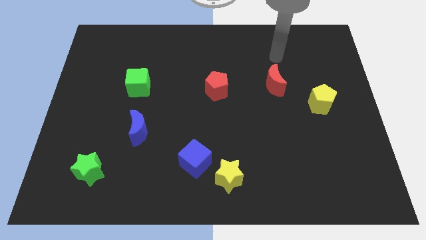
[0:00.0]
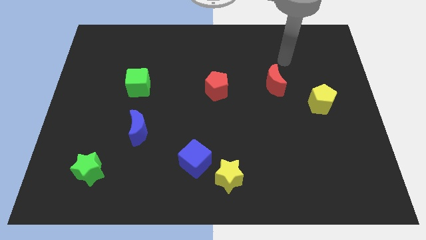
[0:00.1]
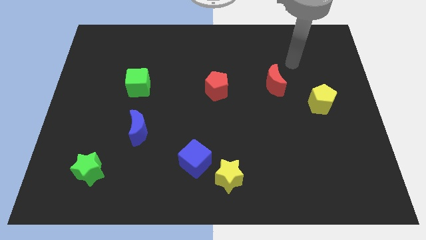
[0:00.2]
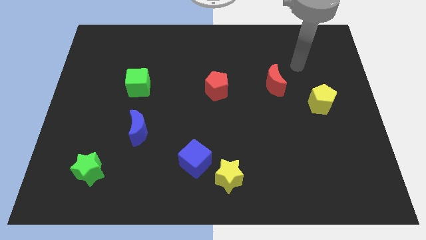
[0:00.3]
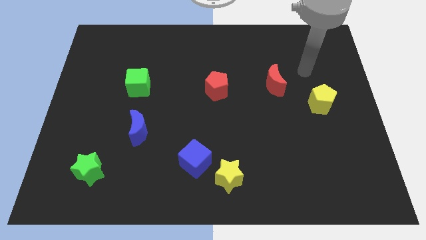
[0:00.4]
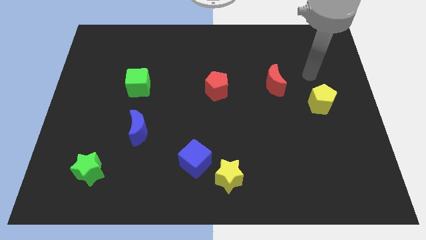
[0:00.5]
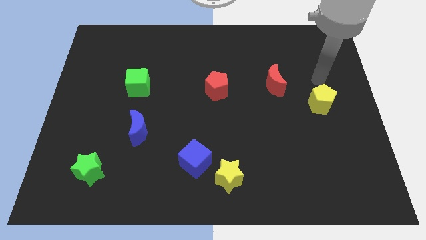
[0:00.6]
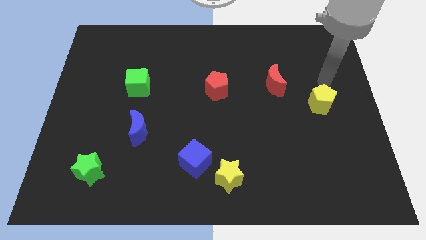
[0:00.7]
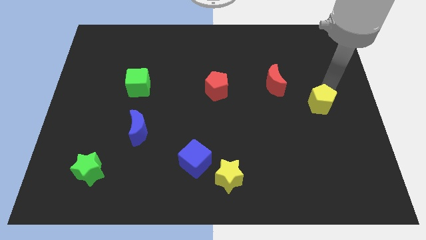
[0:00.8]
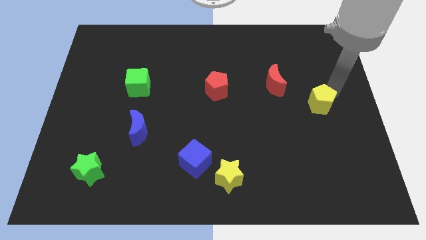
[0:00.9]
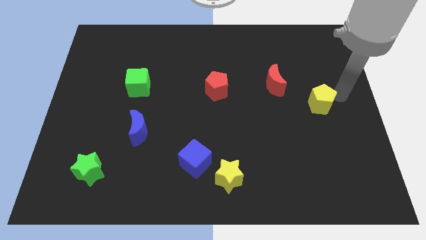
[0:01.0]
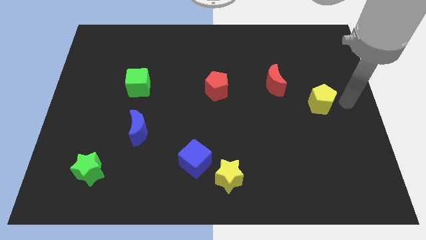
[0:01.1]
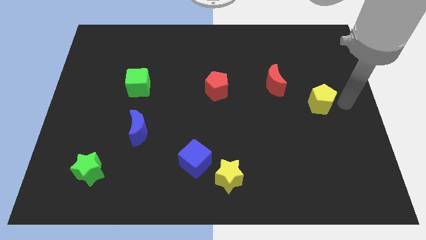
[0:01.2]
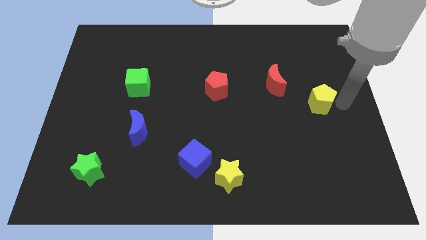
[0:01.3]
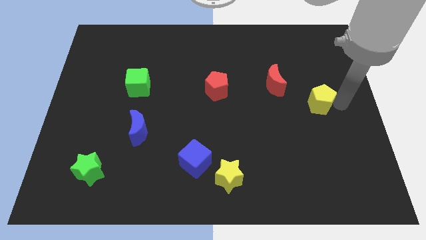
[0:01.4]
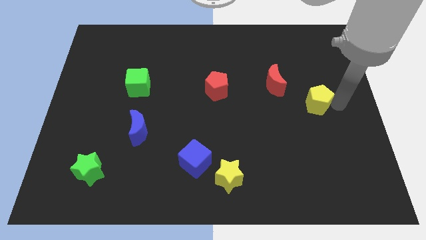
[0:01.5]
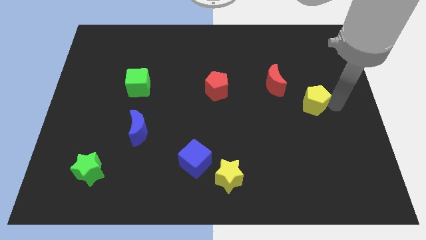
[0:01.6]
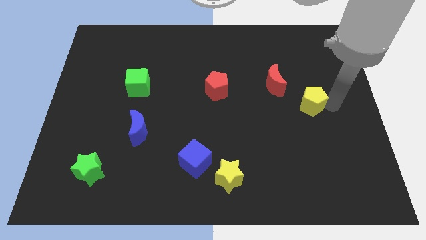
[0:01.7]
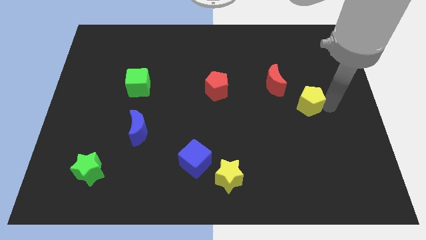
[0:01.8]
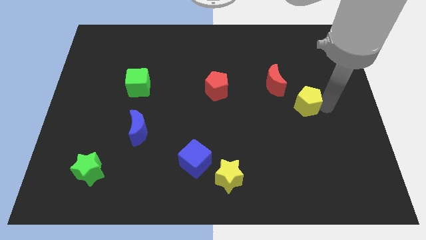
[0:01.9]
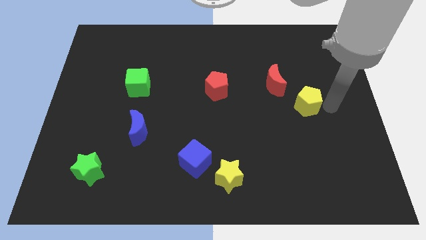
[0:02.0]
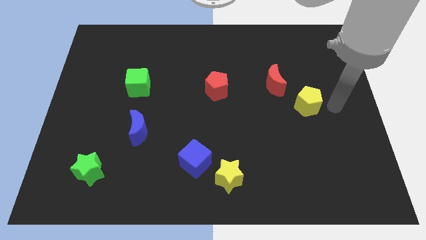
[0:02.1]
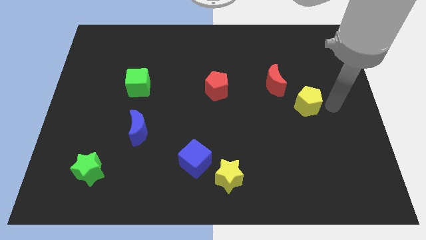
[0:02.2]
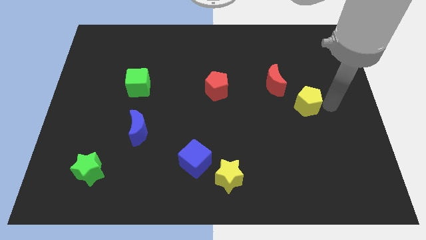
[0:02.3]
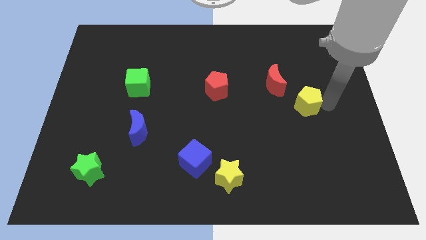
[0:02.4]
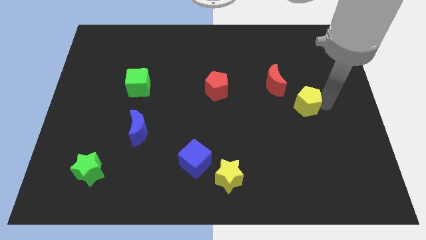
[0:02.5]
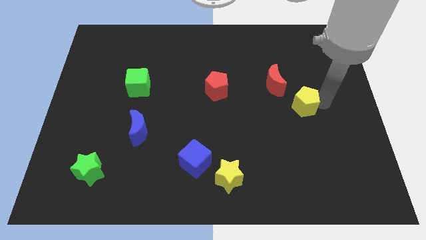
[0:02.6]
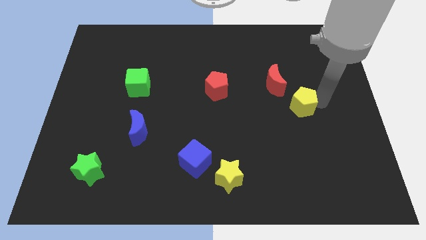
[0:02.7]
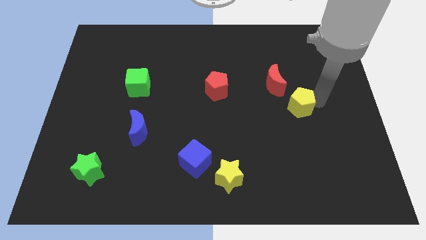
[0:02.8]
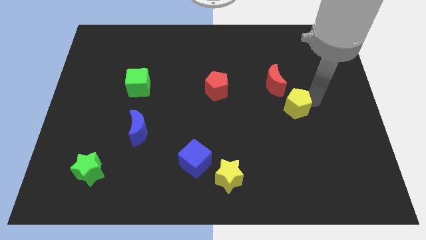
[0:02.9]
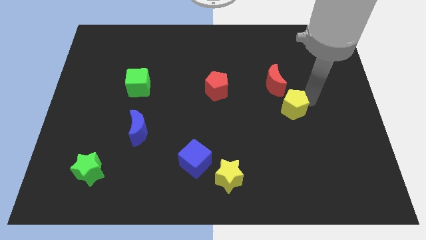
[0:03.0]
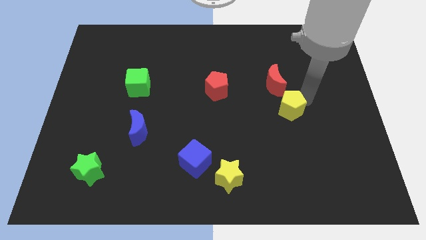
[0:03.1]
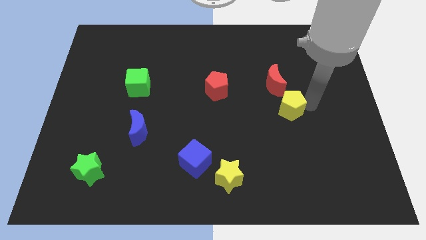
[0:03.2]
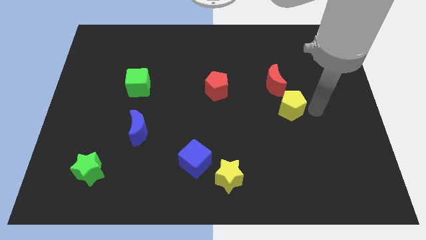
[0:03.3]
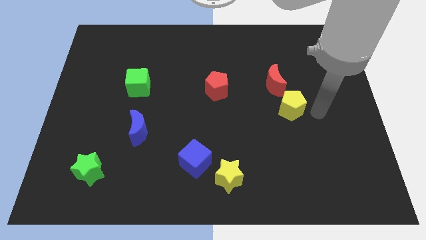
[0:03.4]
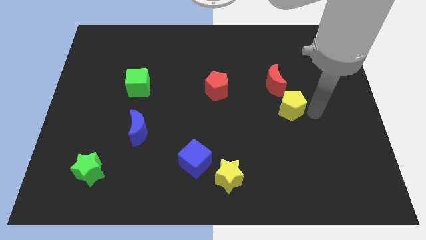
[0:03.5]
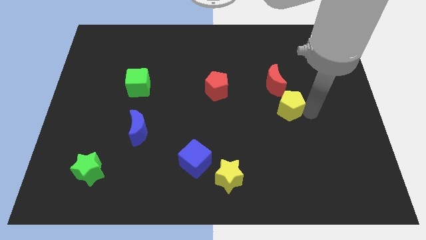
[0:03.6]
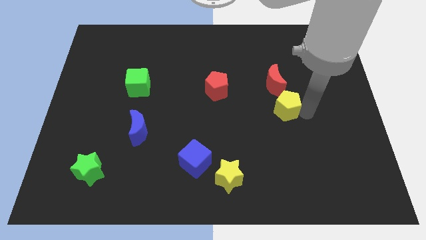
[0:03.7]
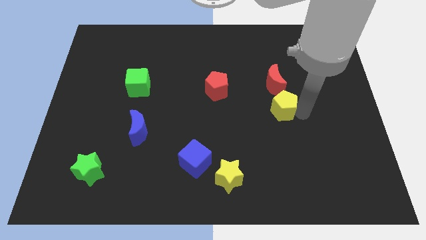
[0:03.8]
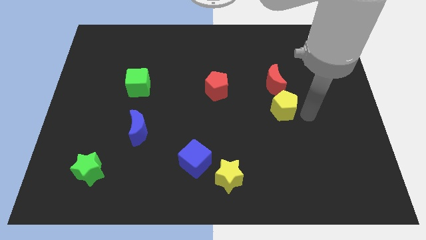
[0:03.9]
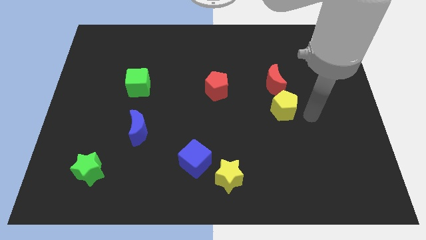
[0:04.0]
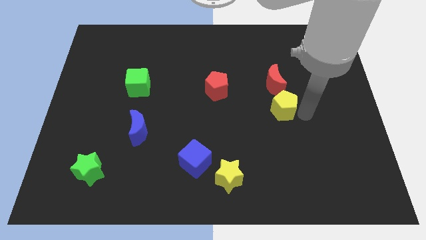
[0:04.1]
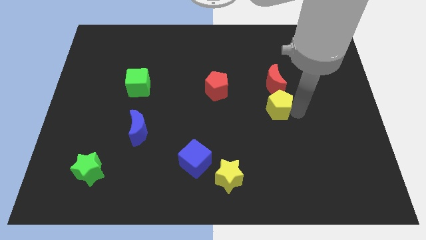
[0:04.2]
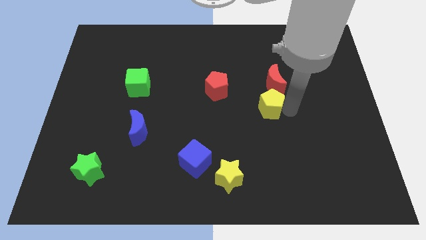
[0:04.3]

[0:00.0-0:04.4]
put the yellow pentagon diagonally down and to the left of the red moon

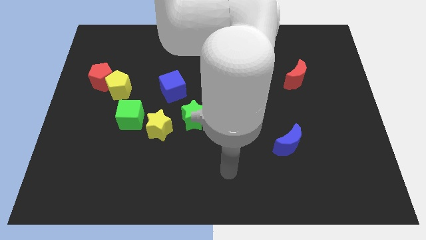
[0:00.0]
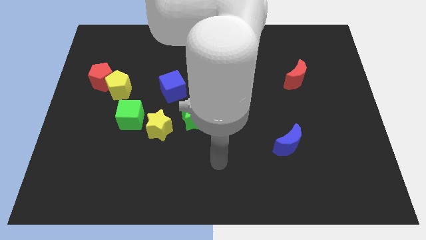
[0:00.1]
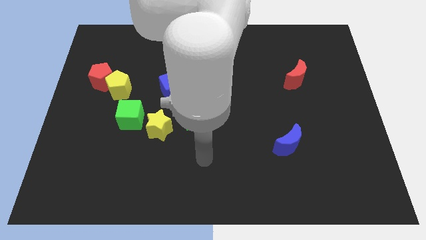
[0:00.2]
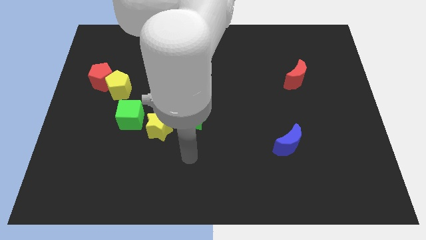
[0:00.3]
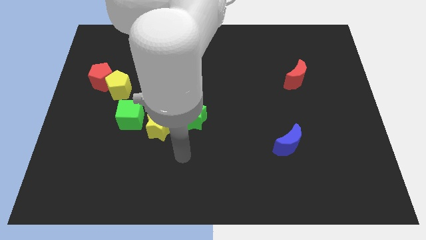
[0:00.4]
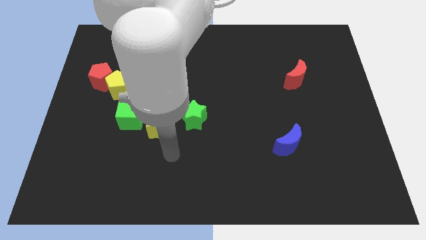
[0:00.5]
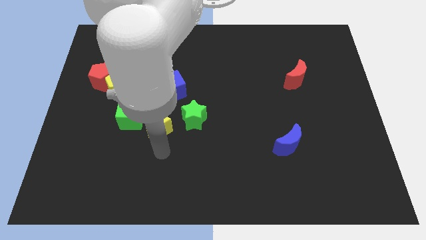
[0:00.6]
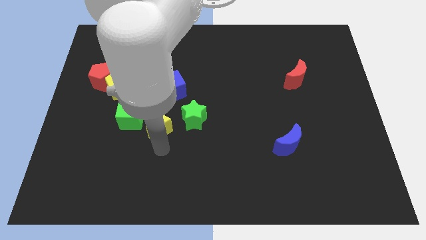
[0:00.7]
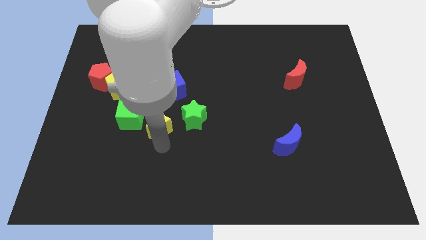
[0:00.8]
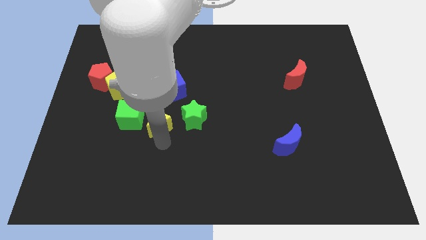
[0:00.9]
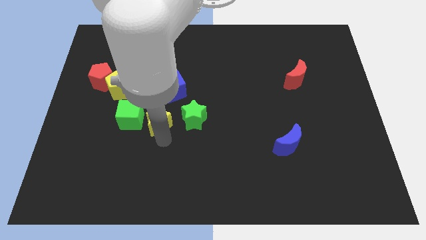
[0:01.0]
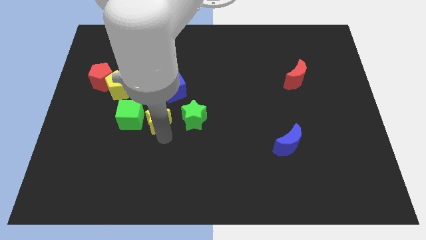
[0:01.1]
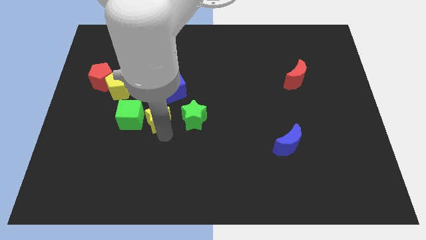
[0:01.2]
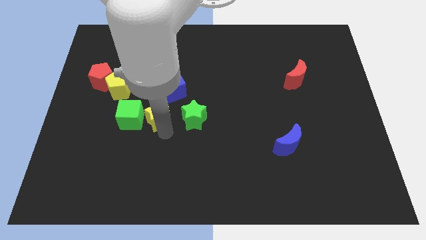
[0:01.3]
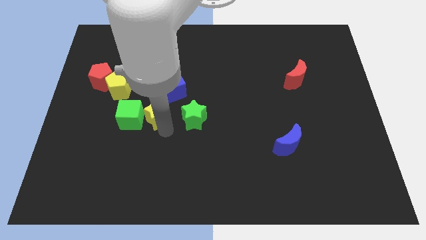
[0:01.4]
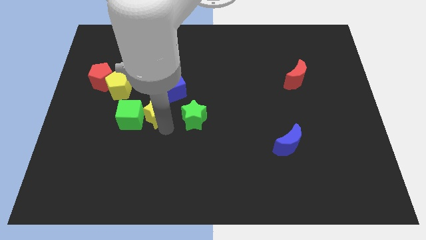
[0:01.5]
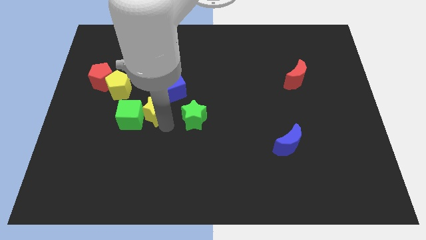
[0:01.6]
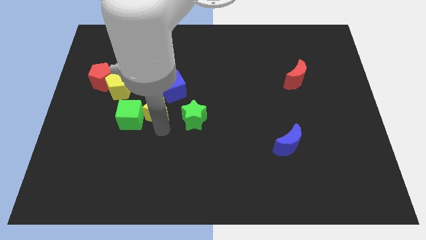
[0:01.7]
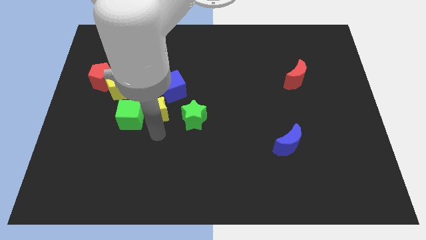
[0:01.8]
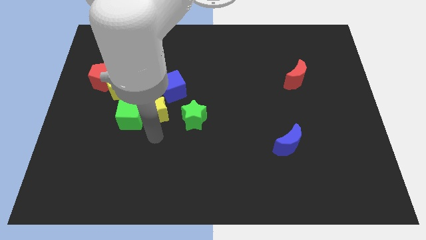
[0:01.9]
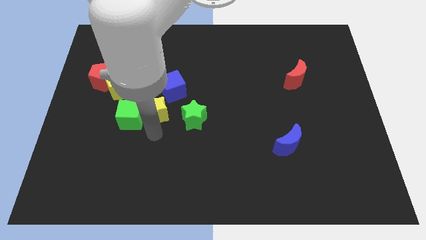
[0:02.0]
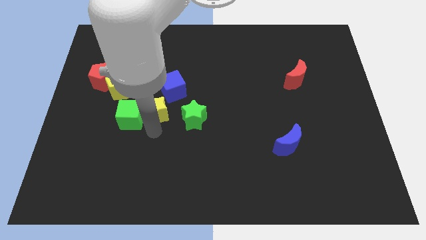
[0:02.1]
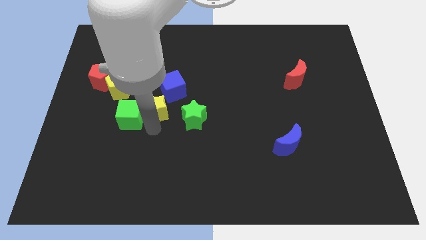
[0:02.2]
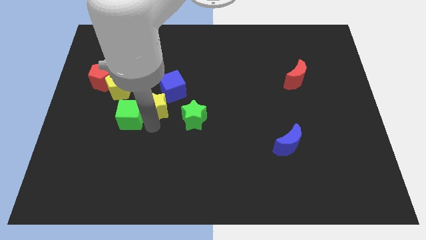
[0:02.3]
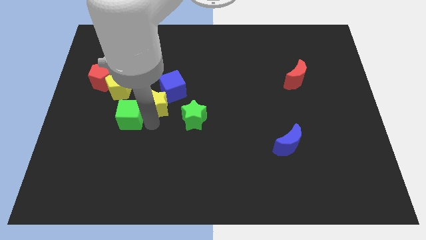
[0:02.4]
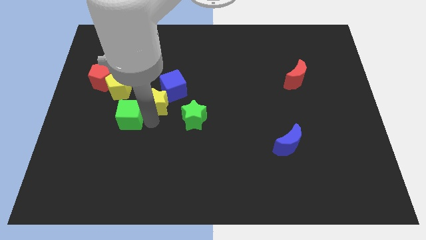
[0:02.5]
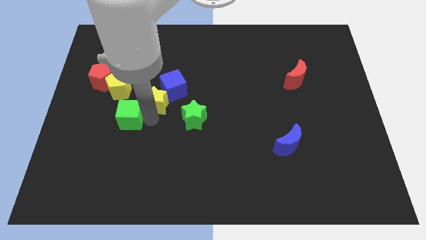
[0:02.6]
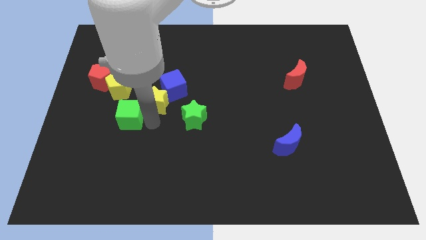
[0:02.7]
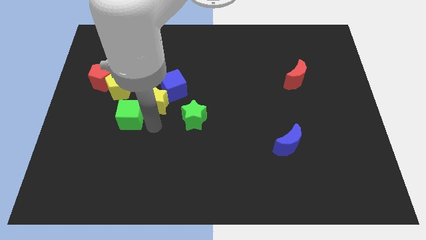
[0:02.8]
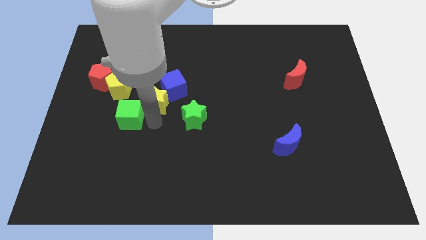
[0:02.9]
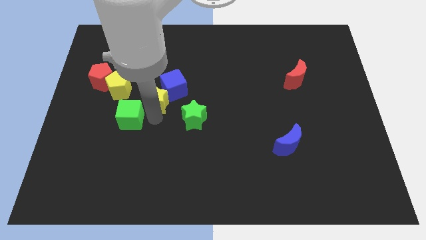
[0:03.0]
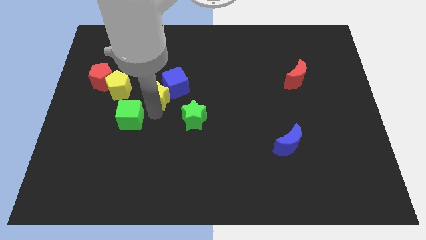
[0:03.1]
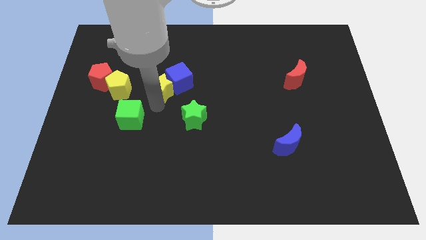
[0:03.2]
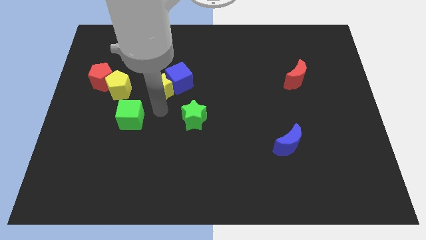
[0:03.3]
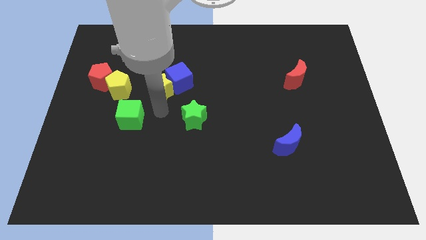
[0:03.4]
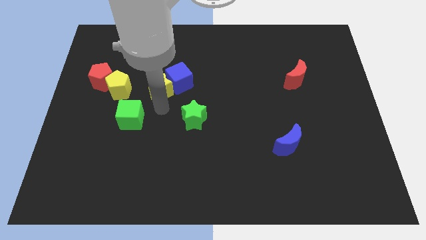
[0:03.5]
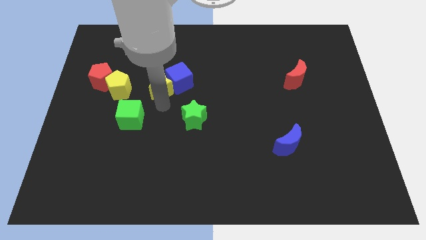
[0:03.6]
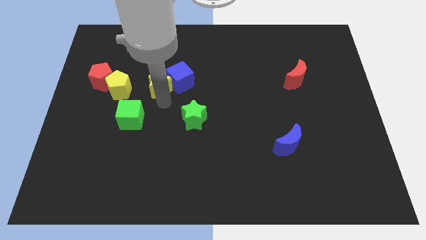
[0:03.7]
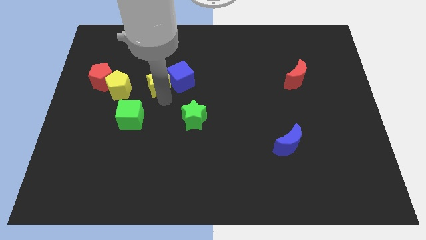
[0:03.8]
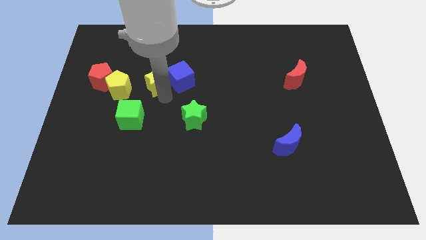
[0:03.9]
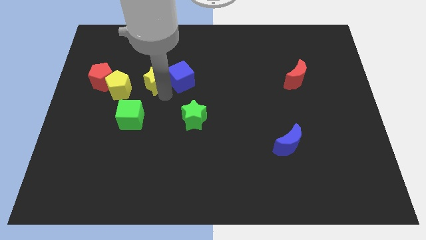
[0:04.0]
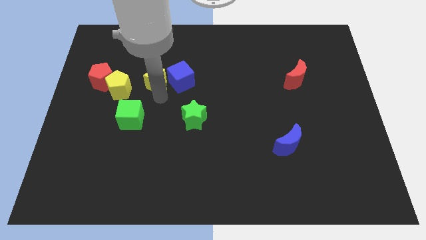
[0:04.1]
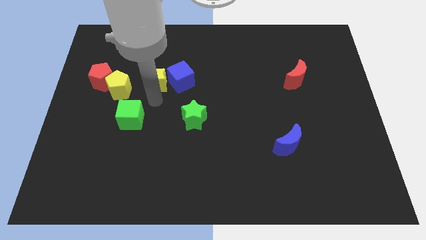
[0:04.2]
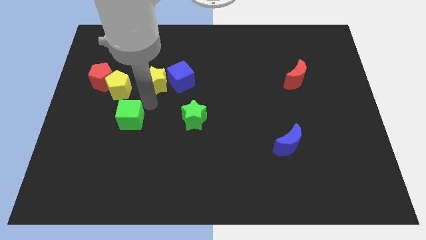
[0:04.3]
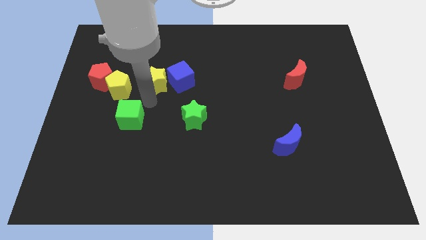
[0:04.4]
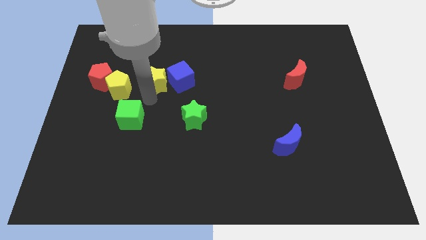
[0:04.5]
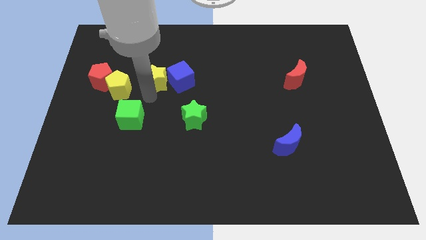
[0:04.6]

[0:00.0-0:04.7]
slide the yellow star to the top left of the blue cube
